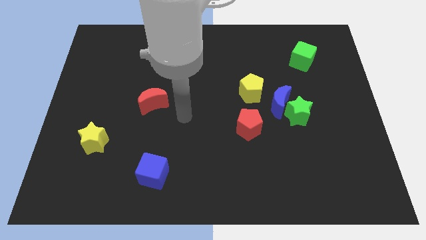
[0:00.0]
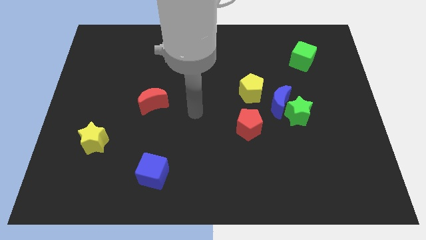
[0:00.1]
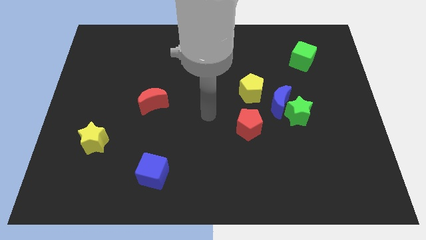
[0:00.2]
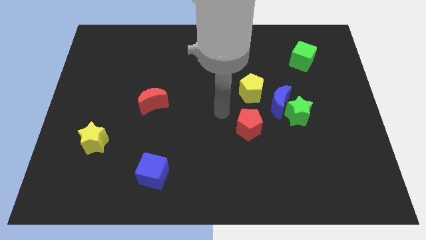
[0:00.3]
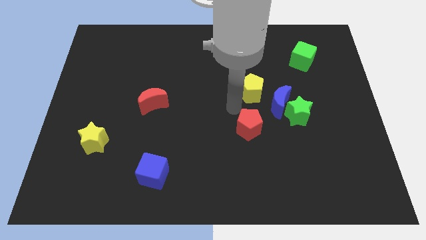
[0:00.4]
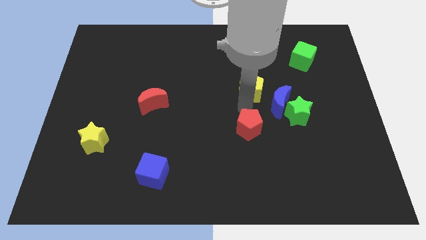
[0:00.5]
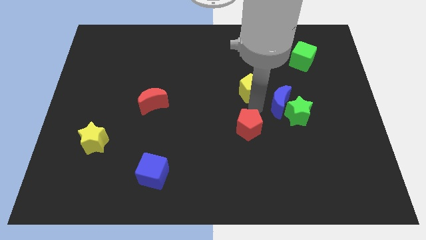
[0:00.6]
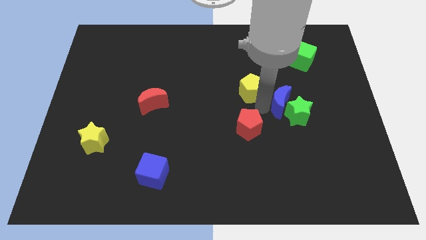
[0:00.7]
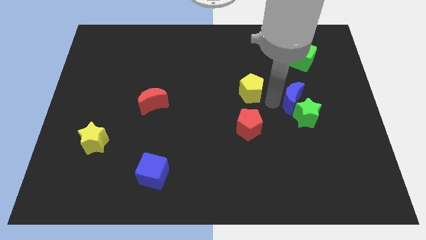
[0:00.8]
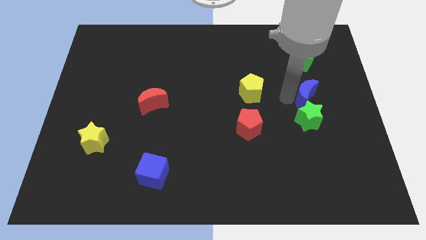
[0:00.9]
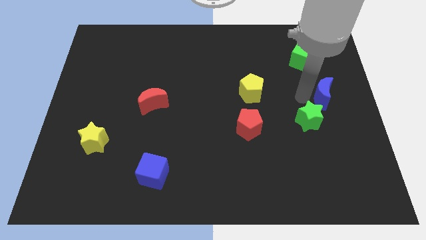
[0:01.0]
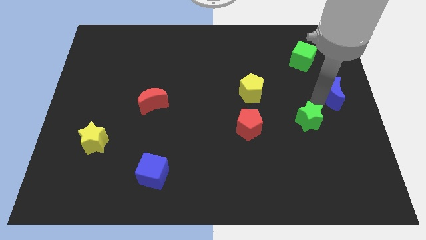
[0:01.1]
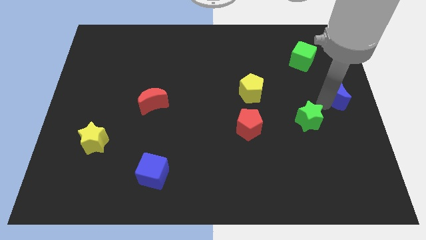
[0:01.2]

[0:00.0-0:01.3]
move the green star away from the blue moon

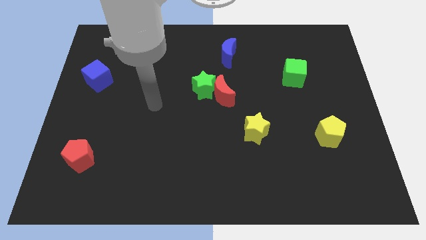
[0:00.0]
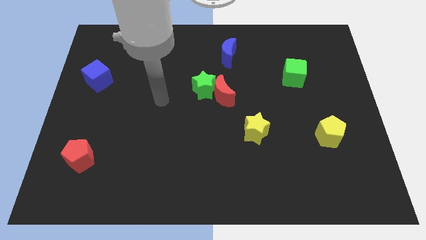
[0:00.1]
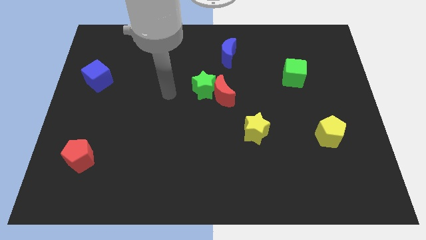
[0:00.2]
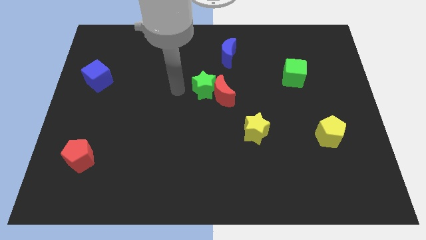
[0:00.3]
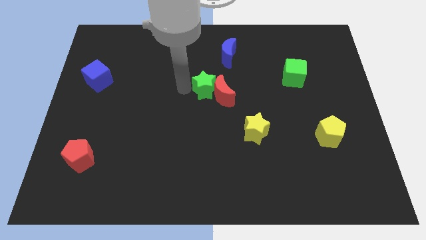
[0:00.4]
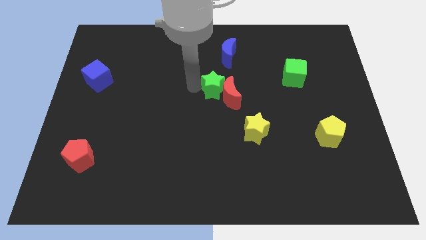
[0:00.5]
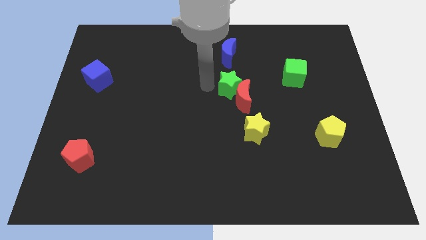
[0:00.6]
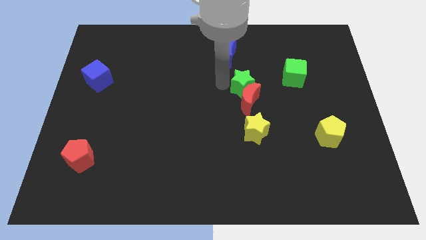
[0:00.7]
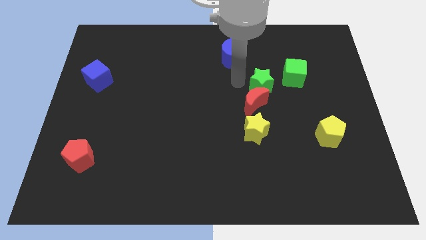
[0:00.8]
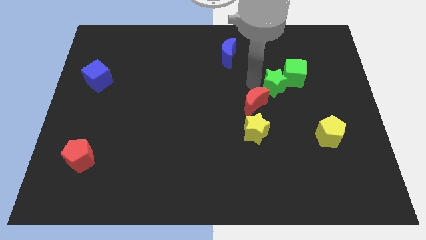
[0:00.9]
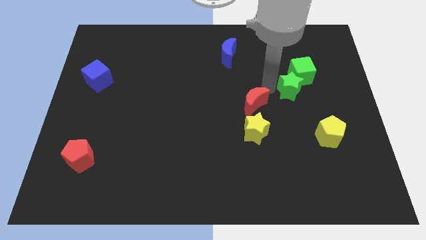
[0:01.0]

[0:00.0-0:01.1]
move the red moon away from the green star

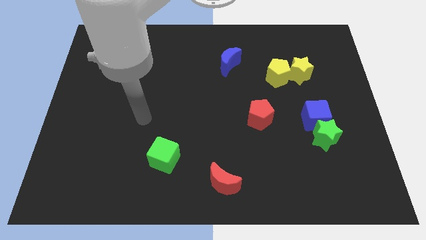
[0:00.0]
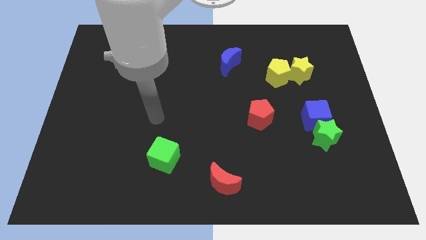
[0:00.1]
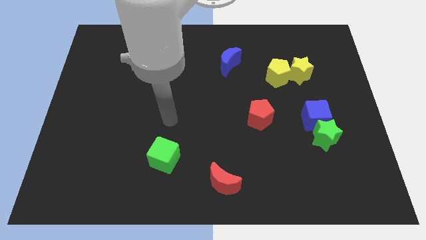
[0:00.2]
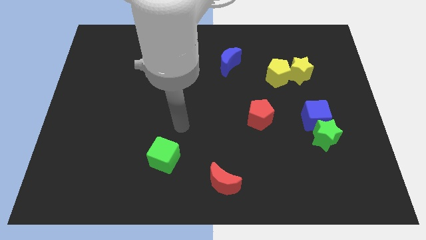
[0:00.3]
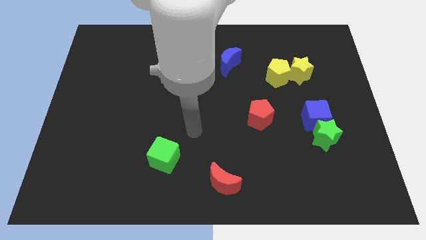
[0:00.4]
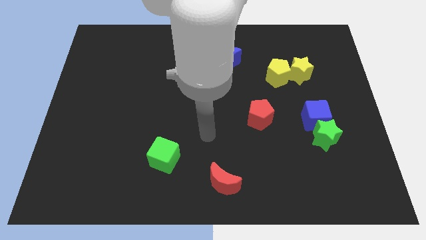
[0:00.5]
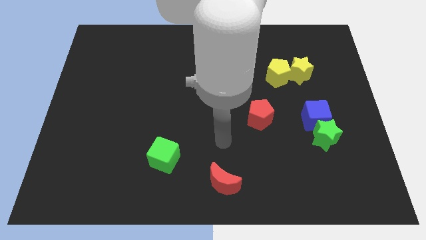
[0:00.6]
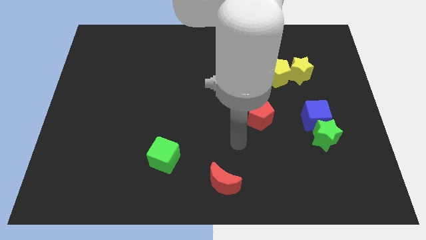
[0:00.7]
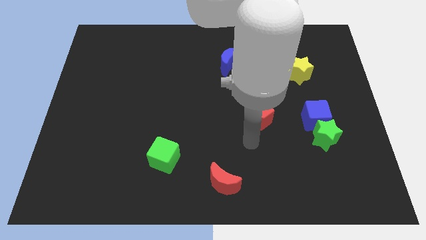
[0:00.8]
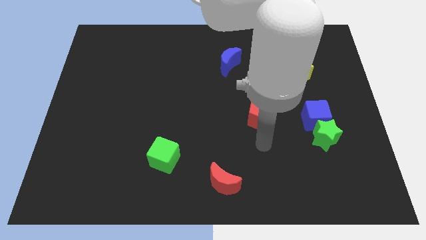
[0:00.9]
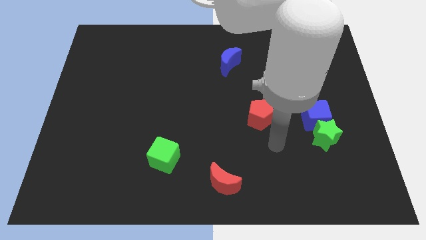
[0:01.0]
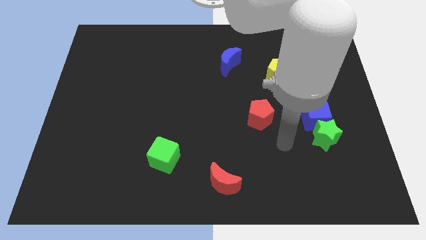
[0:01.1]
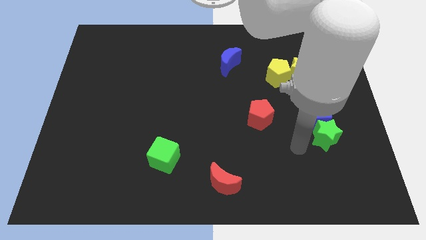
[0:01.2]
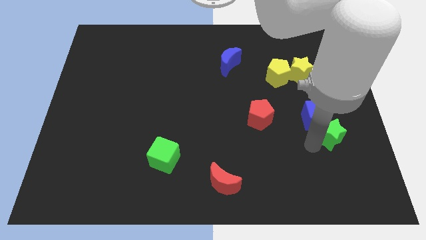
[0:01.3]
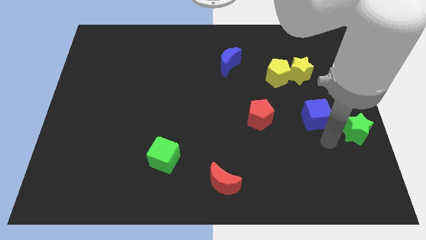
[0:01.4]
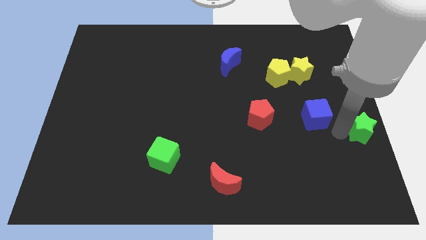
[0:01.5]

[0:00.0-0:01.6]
pull the blue cube apart from the green star

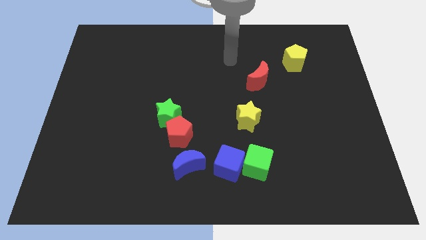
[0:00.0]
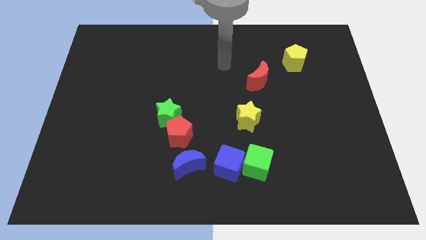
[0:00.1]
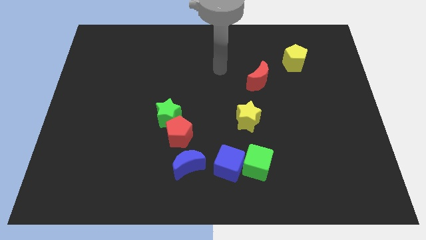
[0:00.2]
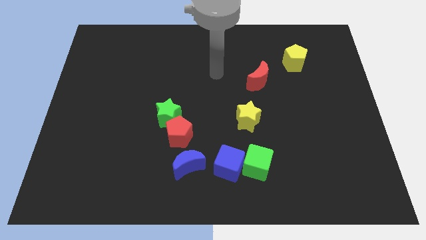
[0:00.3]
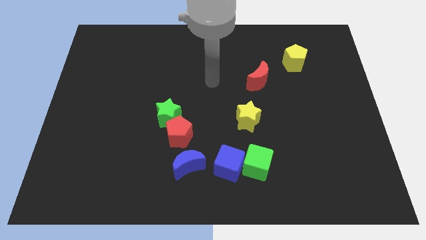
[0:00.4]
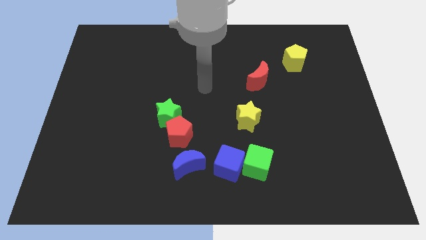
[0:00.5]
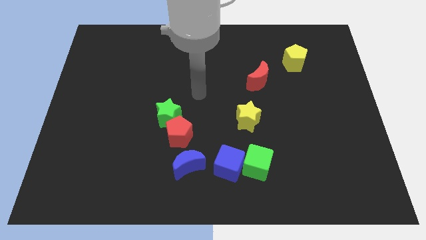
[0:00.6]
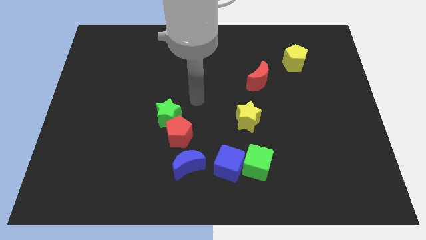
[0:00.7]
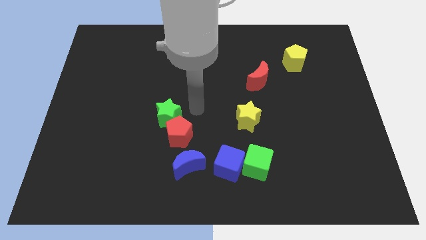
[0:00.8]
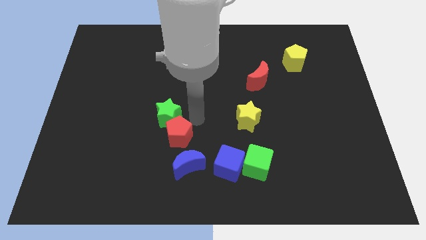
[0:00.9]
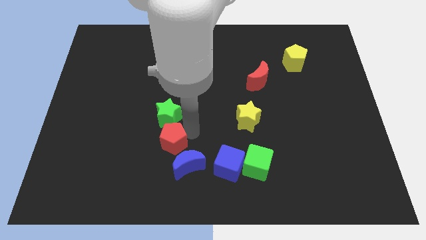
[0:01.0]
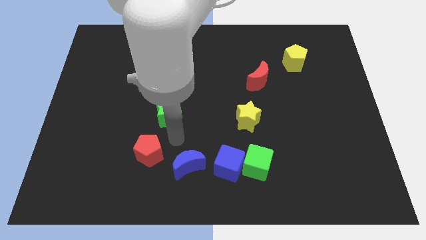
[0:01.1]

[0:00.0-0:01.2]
pull the green star apart from the red pentagon

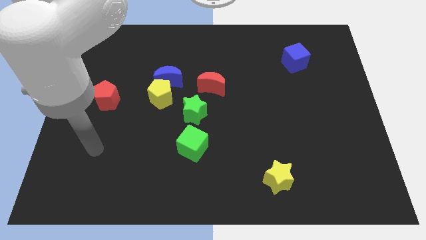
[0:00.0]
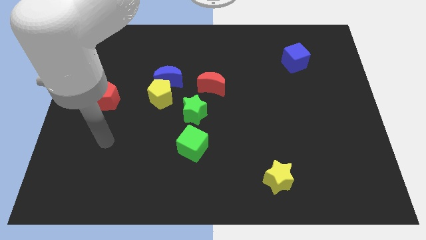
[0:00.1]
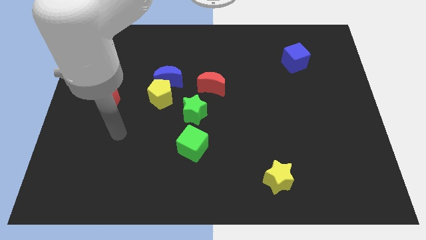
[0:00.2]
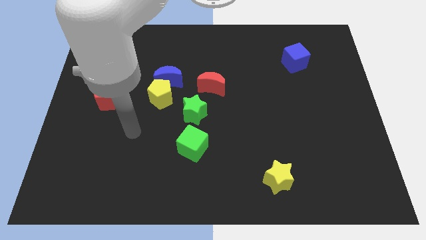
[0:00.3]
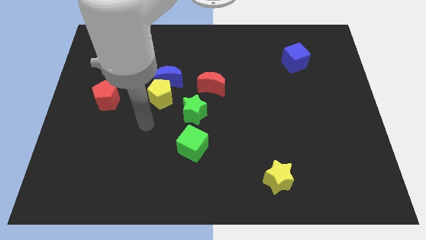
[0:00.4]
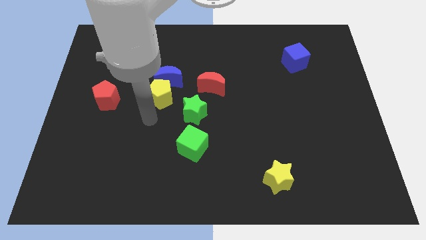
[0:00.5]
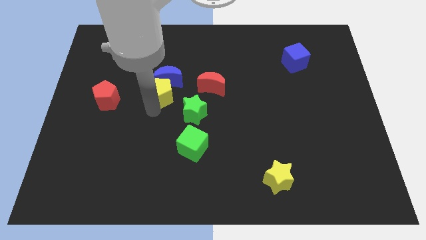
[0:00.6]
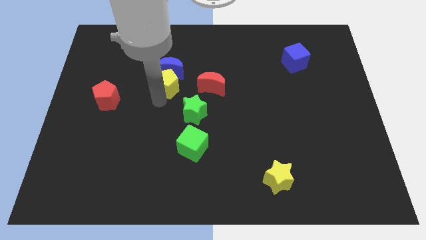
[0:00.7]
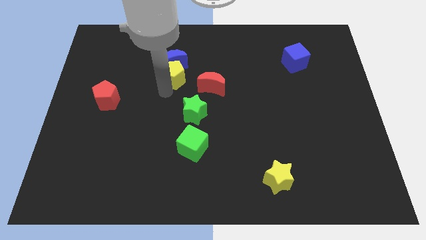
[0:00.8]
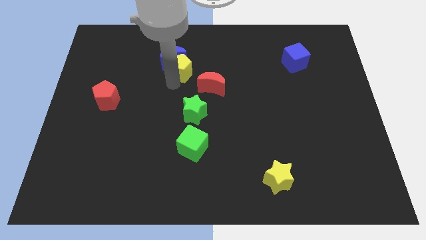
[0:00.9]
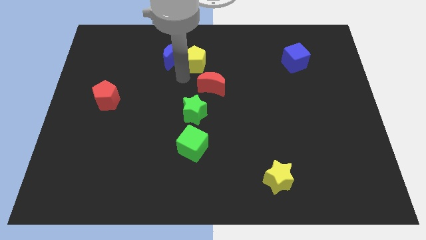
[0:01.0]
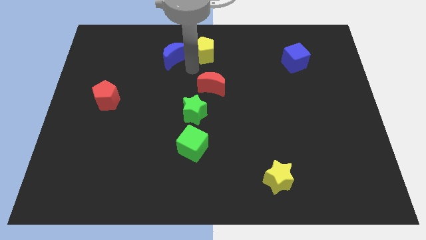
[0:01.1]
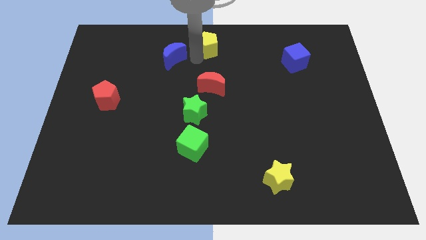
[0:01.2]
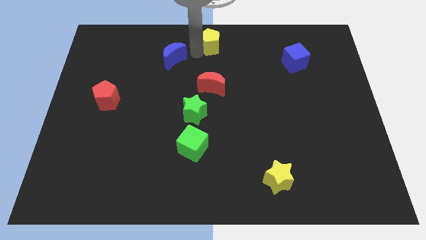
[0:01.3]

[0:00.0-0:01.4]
pull the blue moon apart from the yellow pentagon

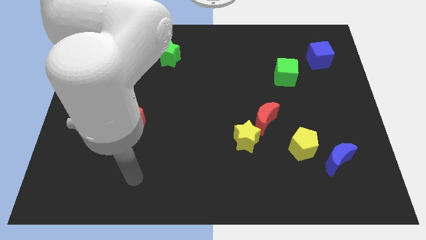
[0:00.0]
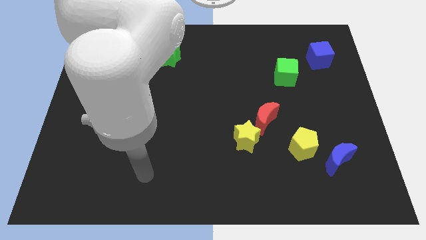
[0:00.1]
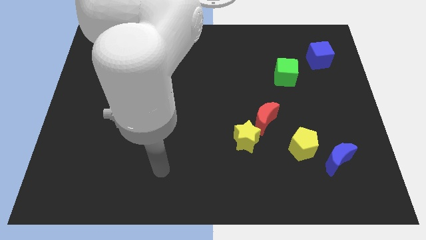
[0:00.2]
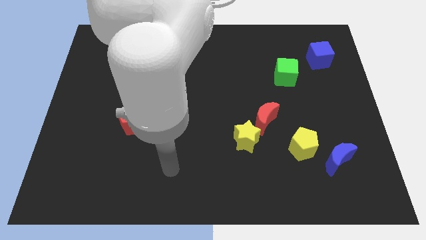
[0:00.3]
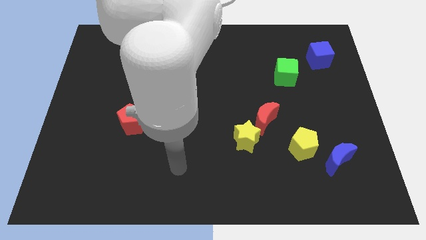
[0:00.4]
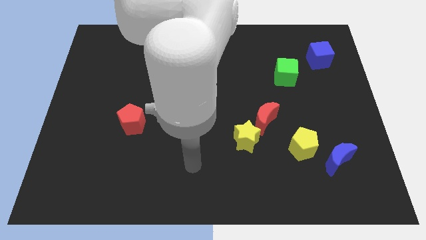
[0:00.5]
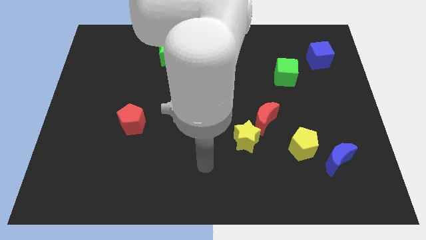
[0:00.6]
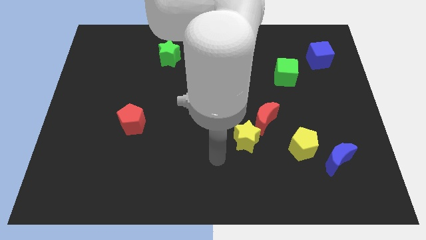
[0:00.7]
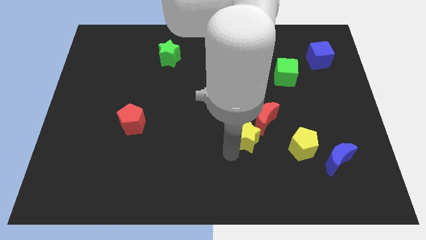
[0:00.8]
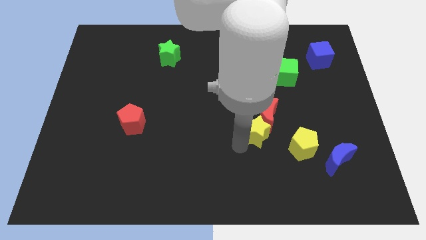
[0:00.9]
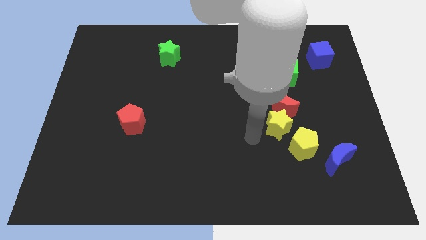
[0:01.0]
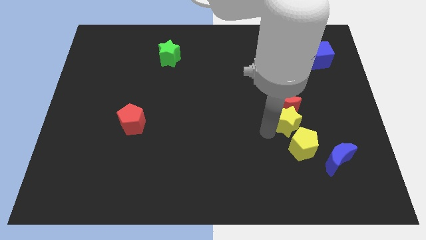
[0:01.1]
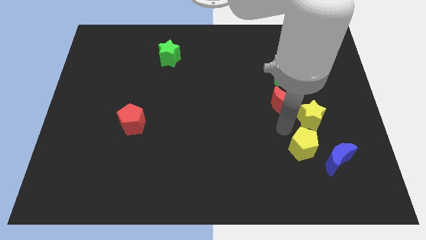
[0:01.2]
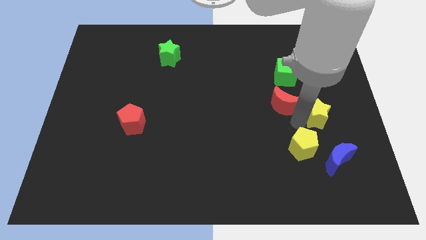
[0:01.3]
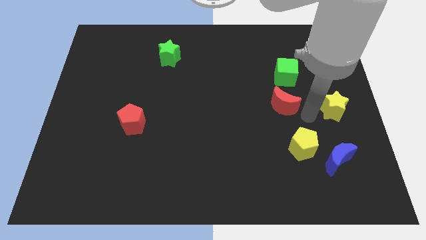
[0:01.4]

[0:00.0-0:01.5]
move the red moon away from the yellow star

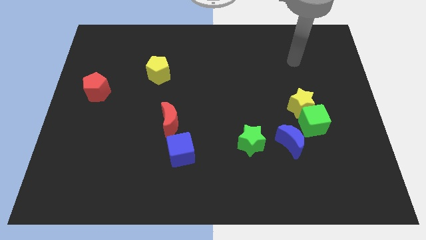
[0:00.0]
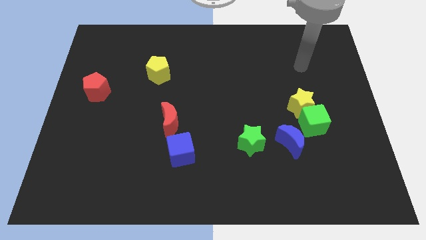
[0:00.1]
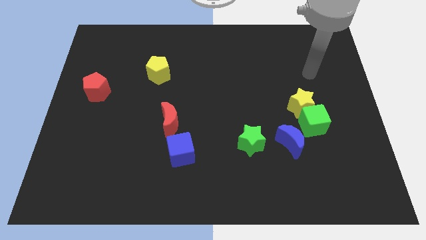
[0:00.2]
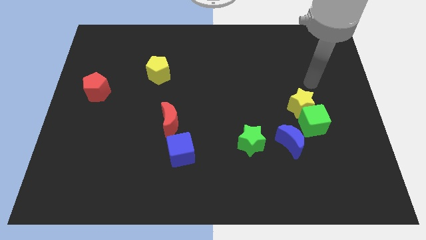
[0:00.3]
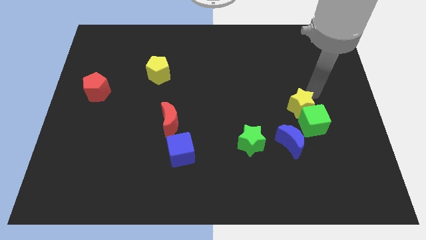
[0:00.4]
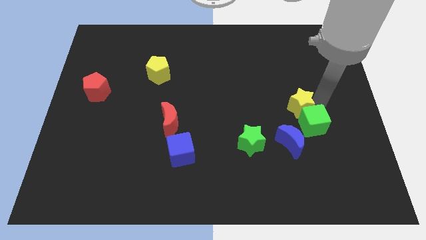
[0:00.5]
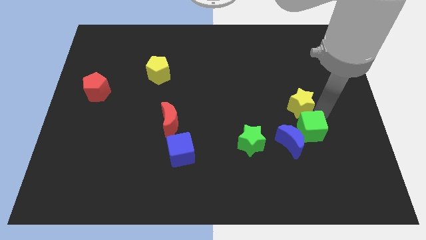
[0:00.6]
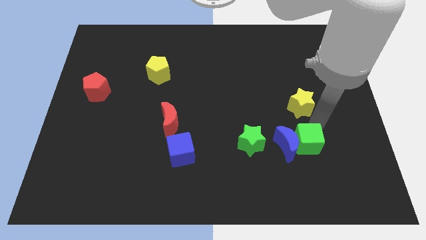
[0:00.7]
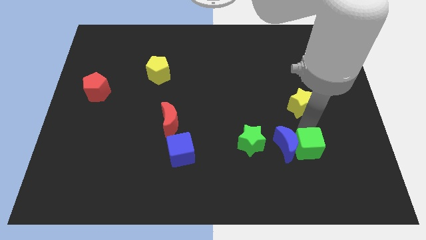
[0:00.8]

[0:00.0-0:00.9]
separate the yellow star from the green cube

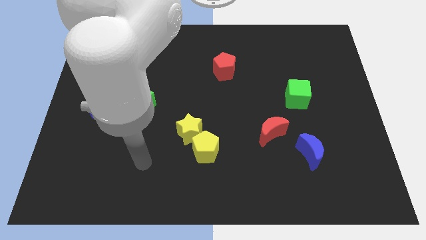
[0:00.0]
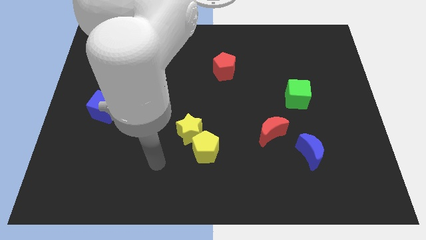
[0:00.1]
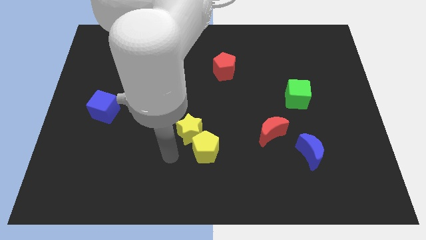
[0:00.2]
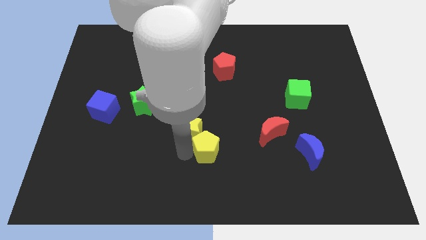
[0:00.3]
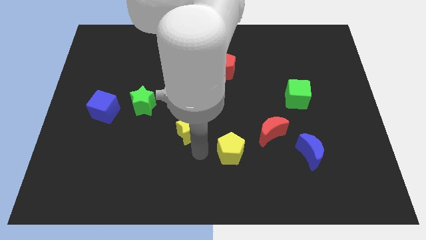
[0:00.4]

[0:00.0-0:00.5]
separate the yellow star from the yellow pentagon
